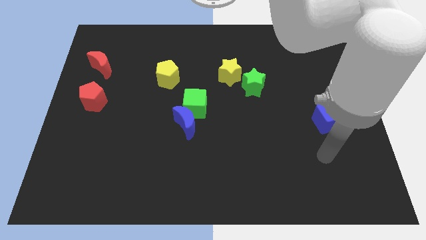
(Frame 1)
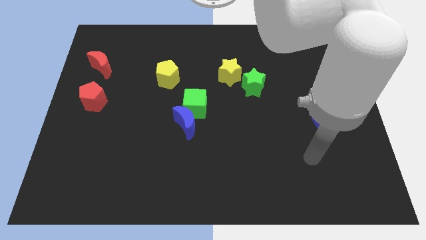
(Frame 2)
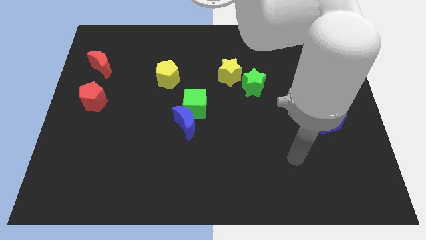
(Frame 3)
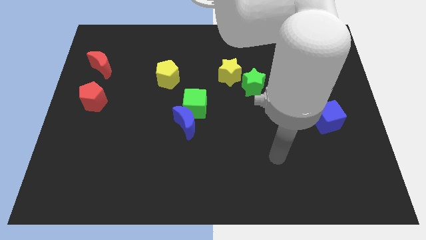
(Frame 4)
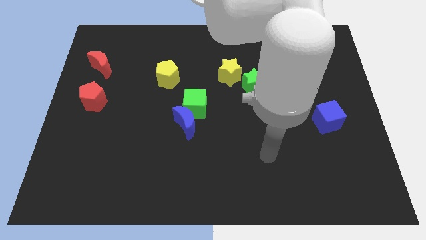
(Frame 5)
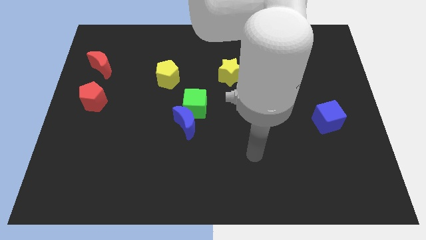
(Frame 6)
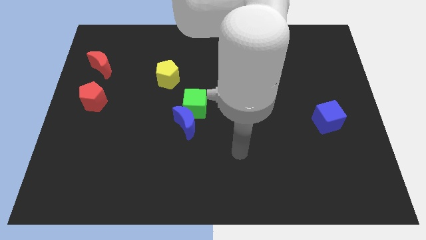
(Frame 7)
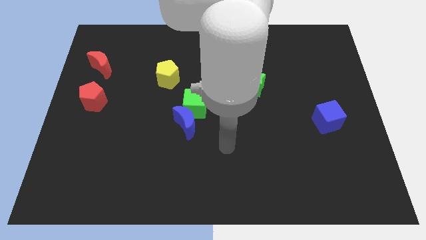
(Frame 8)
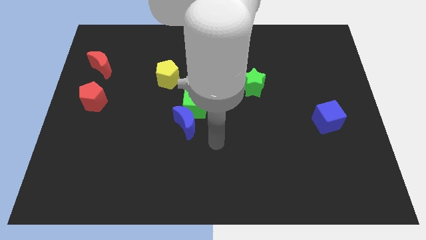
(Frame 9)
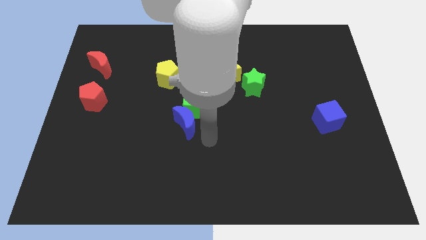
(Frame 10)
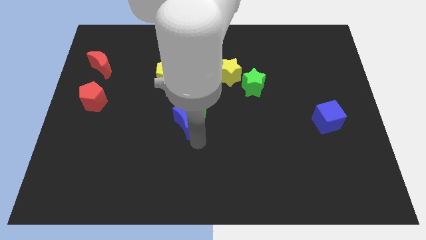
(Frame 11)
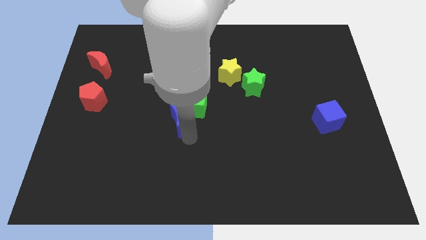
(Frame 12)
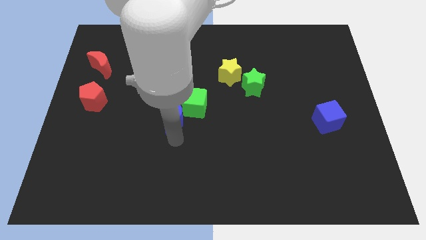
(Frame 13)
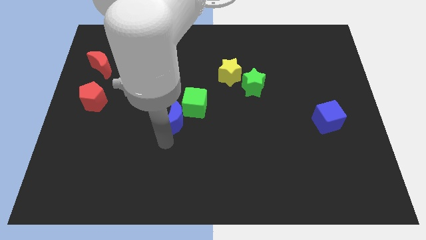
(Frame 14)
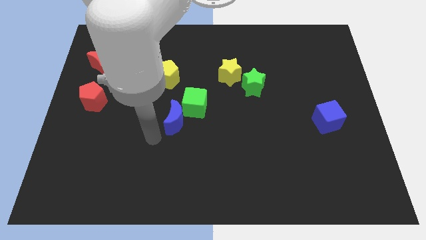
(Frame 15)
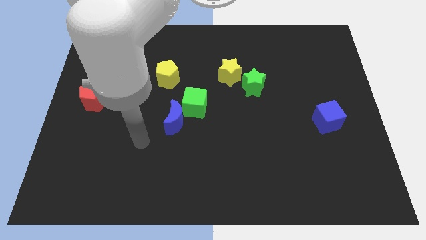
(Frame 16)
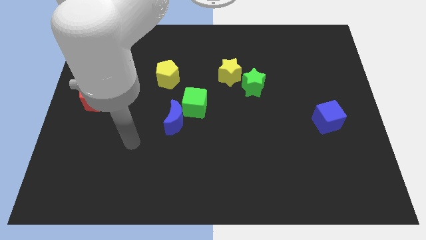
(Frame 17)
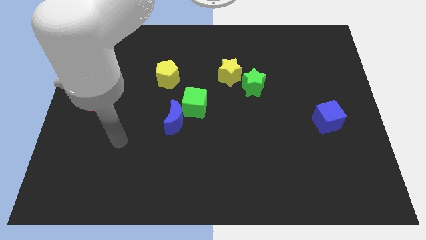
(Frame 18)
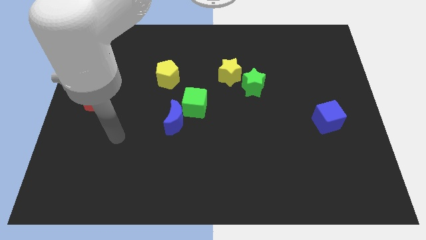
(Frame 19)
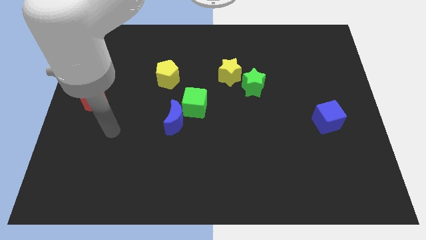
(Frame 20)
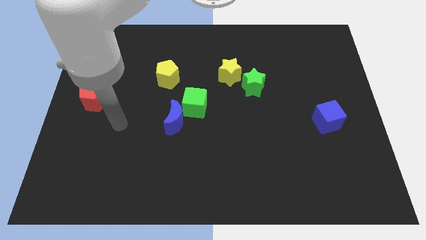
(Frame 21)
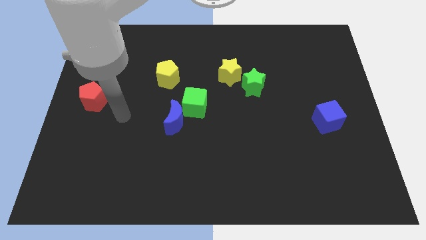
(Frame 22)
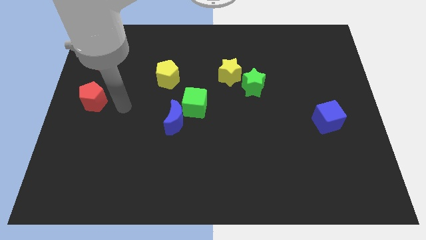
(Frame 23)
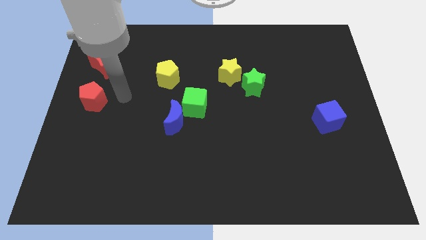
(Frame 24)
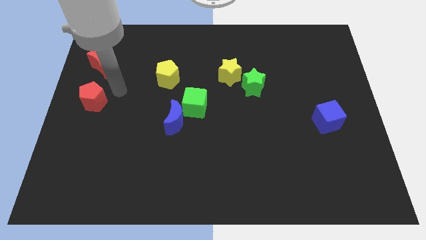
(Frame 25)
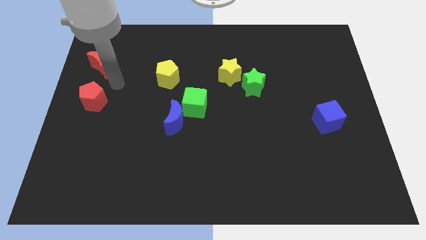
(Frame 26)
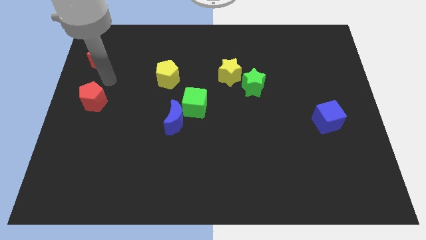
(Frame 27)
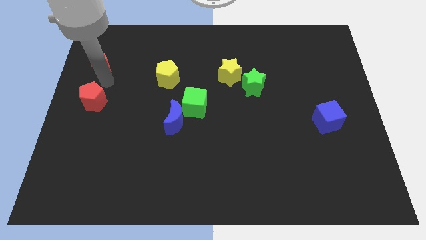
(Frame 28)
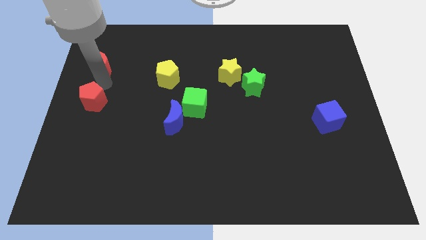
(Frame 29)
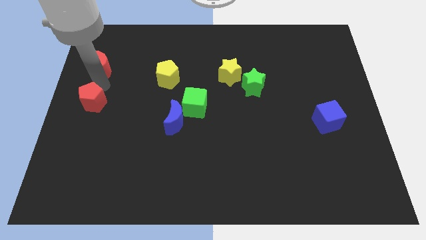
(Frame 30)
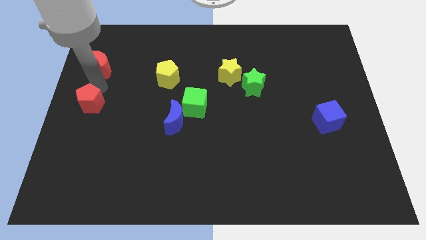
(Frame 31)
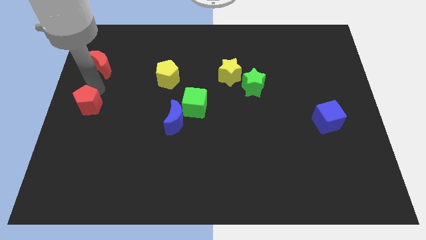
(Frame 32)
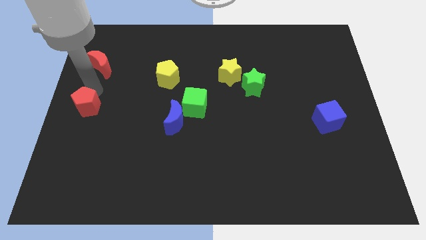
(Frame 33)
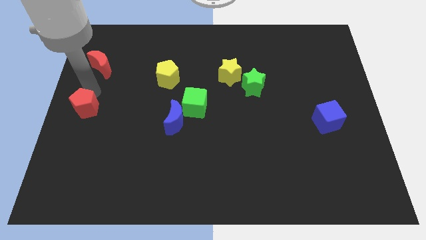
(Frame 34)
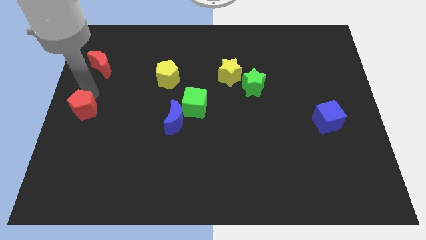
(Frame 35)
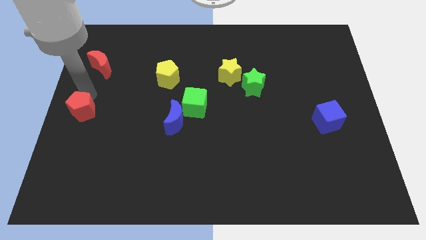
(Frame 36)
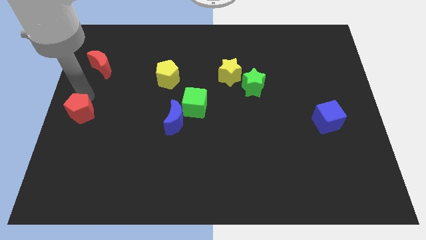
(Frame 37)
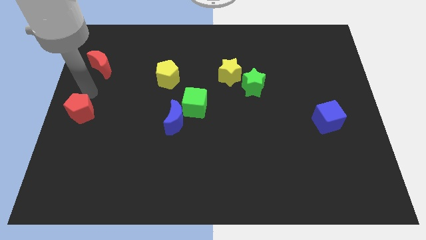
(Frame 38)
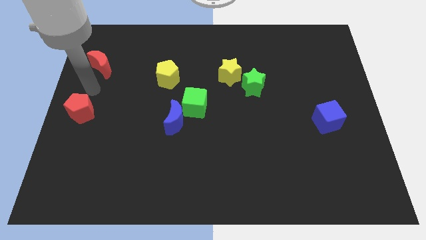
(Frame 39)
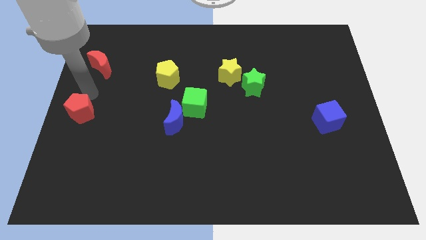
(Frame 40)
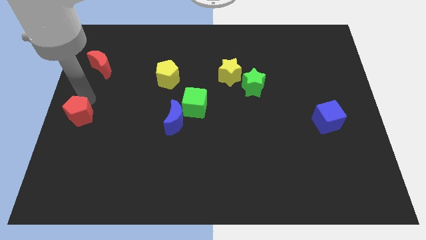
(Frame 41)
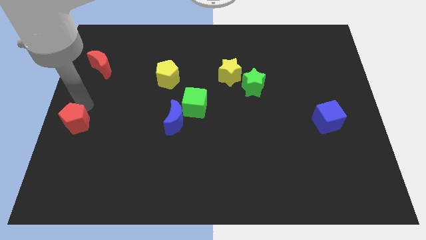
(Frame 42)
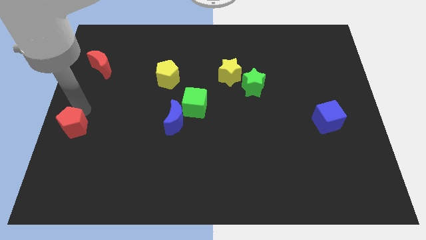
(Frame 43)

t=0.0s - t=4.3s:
slightly move the red pentagon down

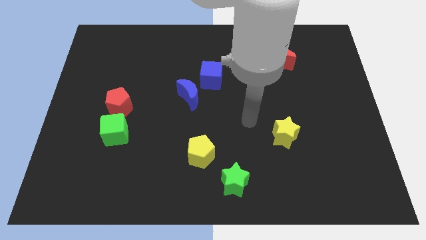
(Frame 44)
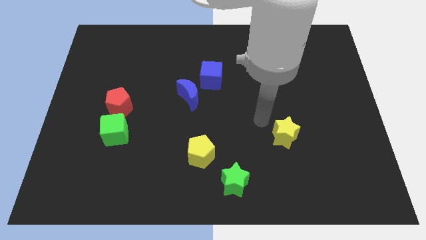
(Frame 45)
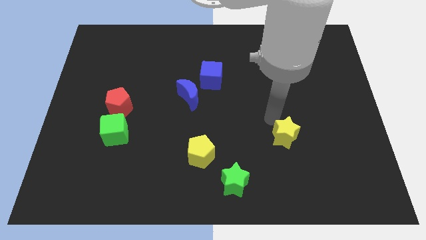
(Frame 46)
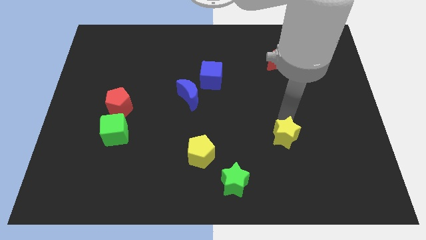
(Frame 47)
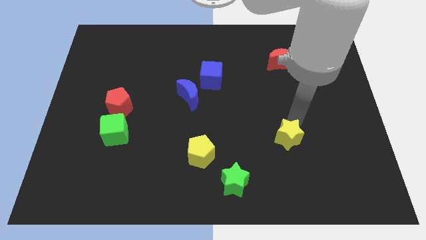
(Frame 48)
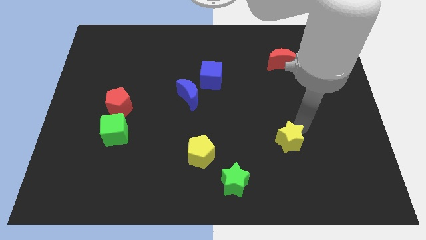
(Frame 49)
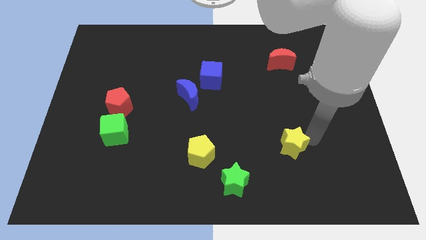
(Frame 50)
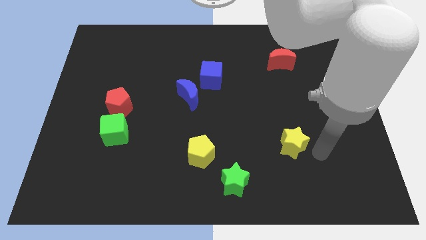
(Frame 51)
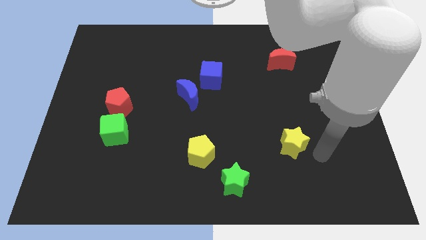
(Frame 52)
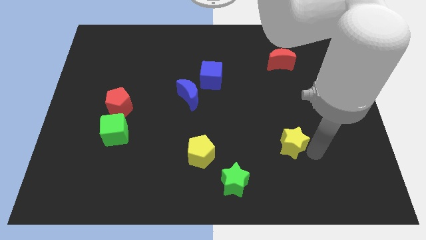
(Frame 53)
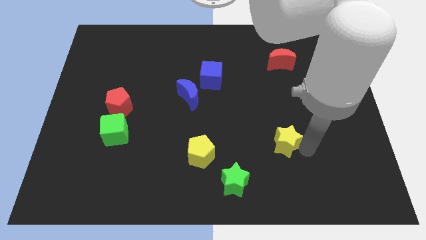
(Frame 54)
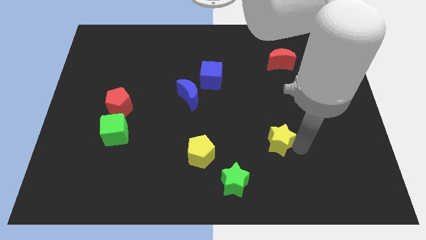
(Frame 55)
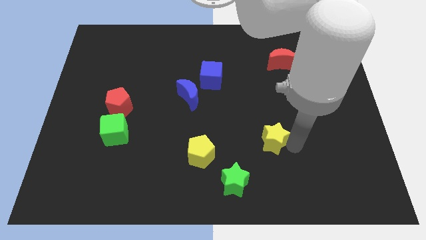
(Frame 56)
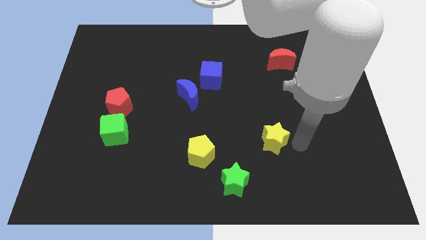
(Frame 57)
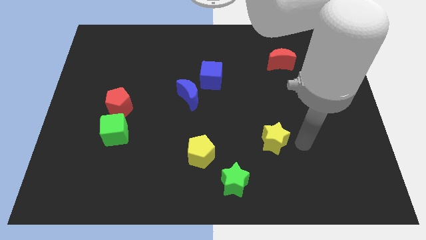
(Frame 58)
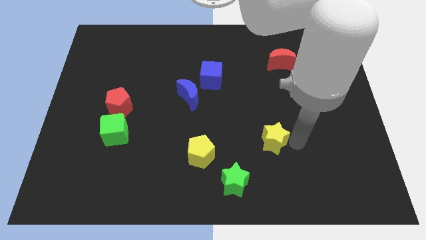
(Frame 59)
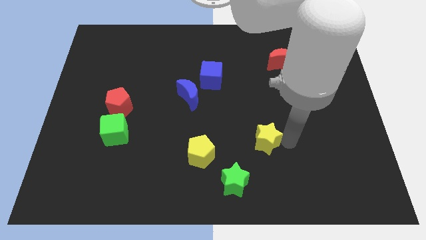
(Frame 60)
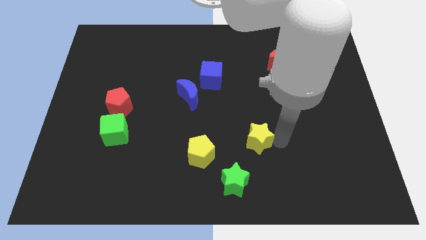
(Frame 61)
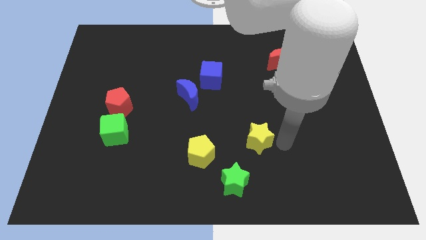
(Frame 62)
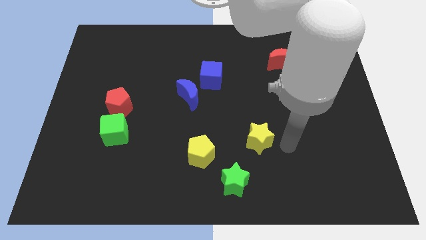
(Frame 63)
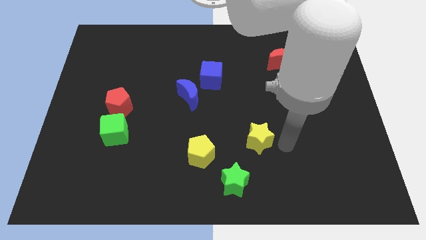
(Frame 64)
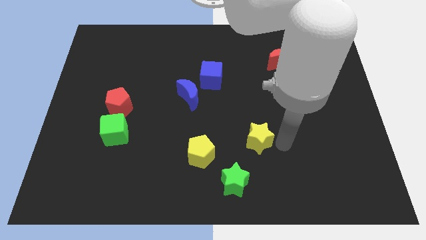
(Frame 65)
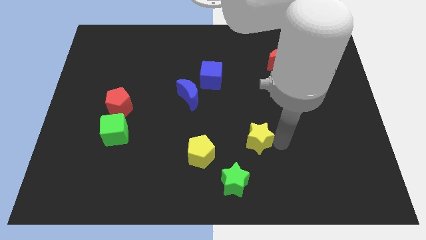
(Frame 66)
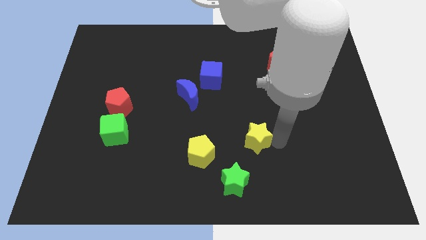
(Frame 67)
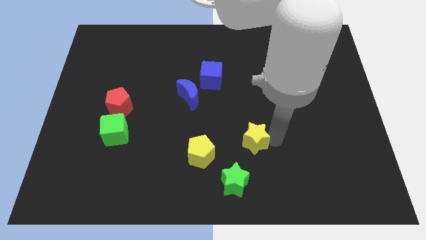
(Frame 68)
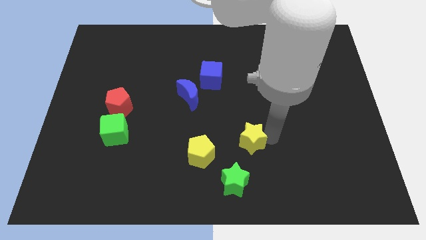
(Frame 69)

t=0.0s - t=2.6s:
push the yellow star somewhat to the left

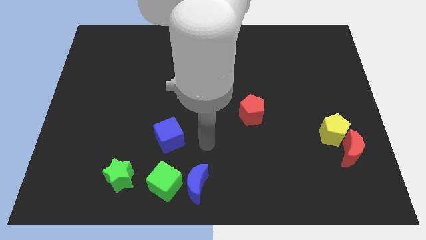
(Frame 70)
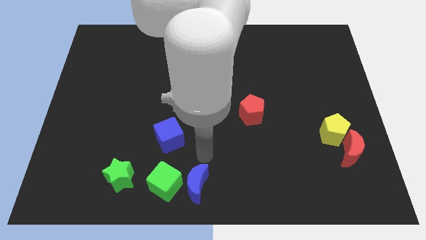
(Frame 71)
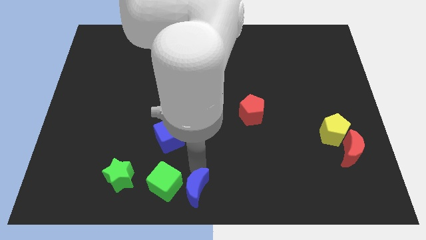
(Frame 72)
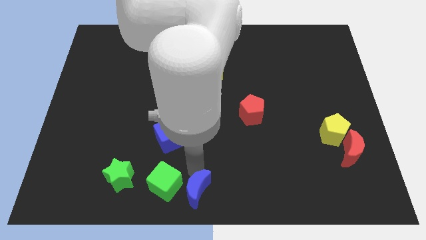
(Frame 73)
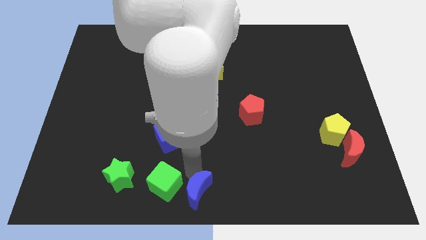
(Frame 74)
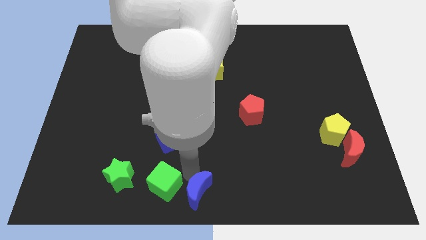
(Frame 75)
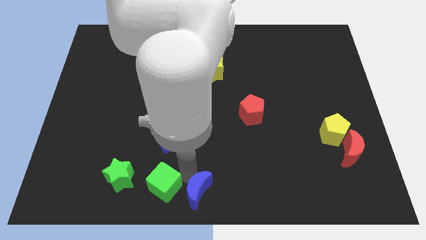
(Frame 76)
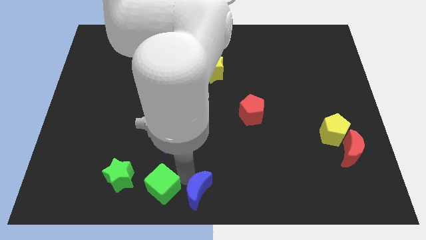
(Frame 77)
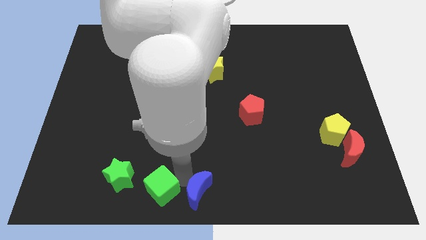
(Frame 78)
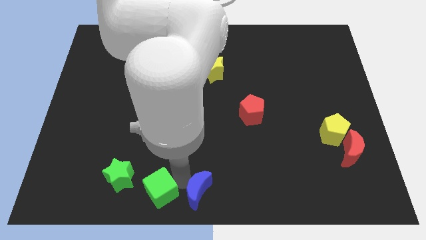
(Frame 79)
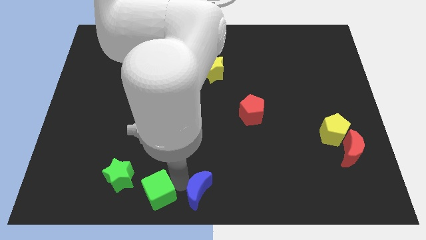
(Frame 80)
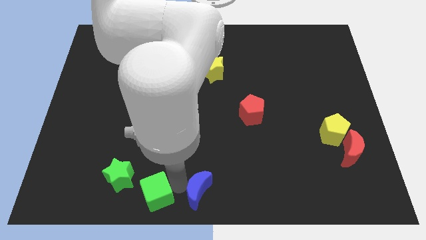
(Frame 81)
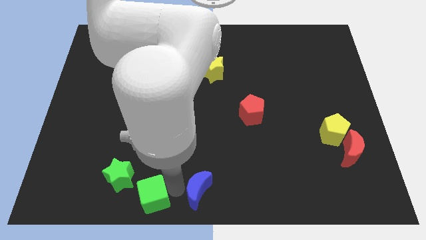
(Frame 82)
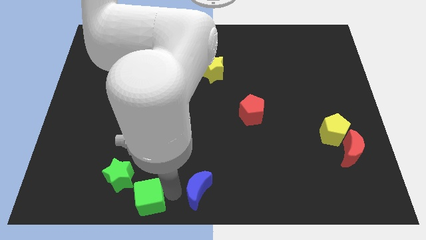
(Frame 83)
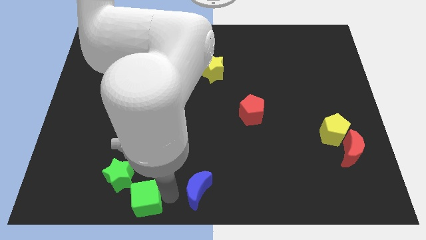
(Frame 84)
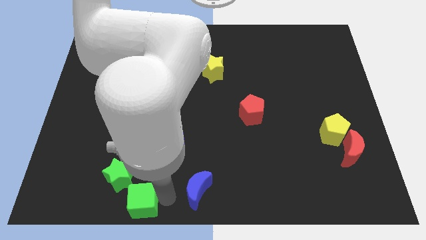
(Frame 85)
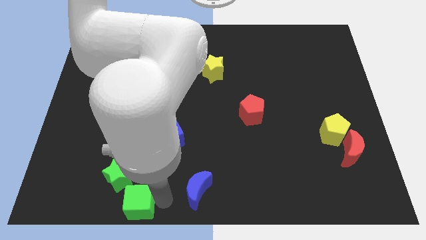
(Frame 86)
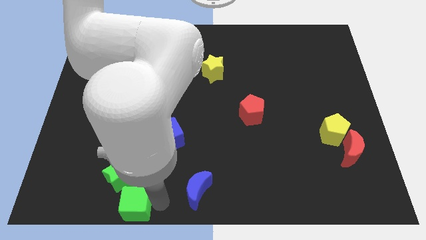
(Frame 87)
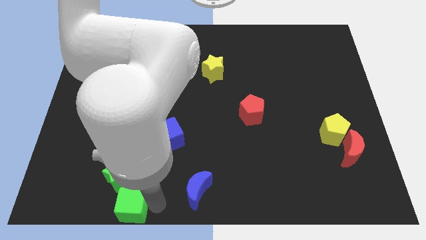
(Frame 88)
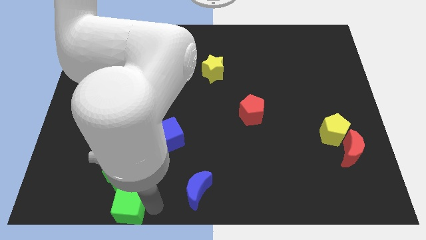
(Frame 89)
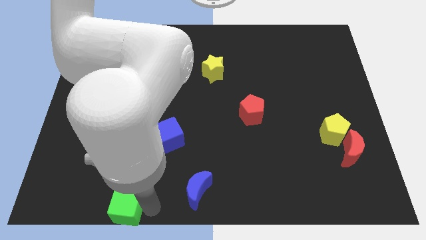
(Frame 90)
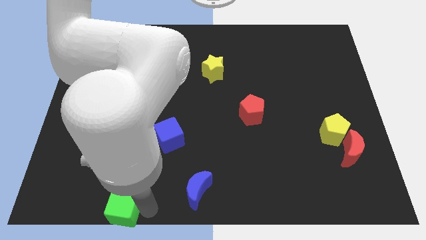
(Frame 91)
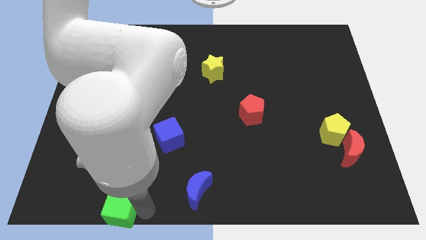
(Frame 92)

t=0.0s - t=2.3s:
slightly push the green cube to the left
